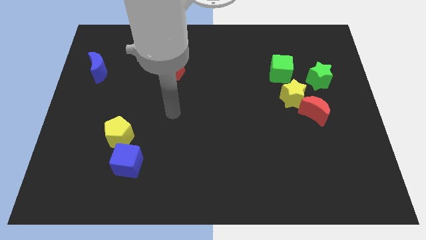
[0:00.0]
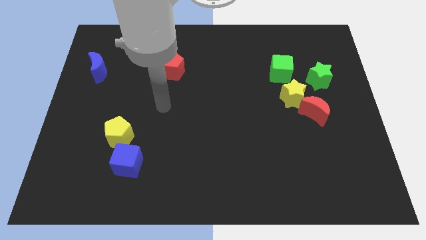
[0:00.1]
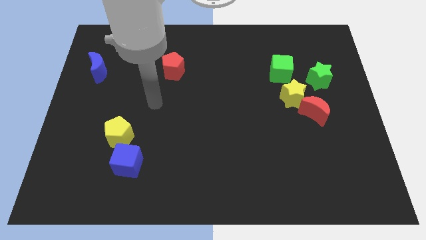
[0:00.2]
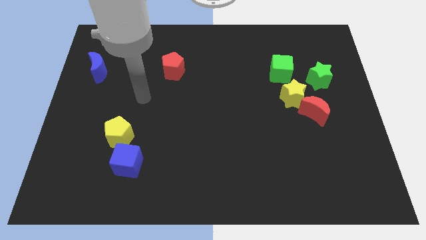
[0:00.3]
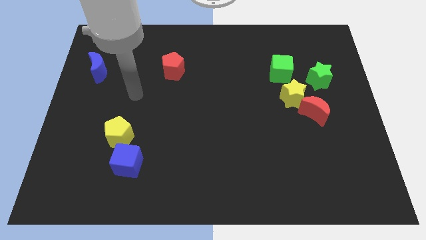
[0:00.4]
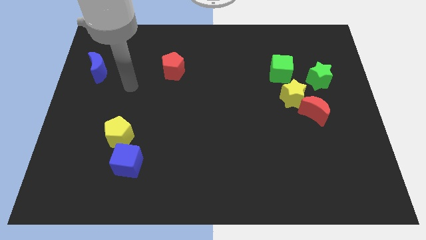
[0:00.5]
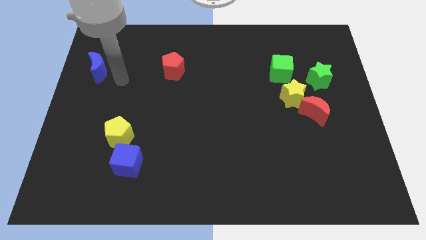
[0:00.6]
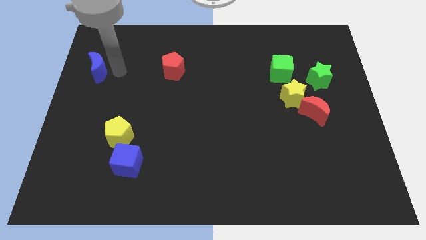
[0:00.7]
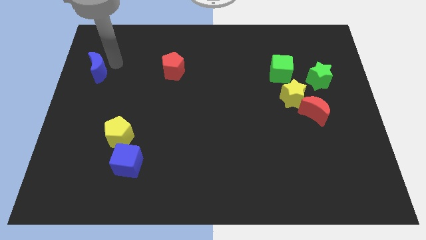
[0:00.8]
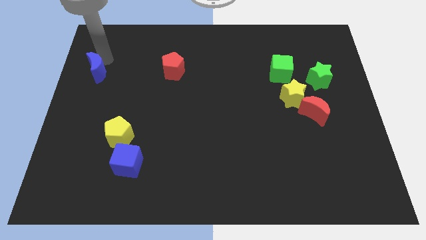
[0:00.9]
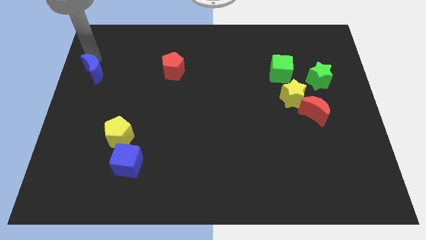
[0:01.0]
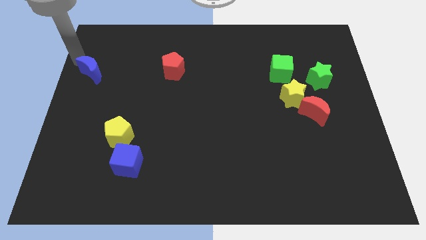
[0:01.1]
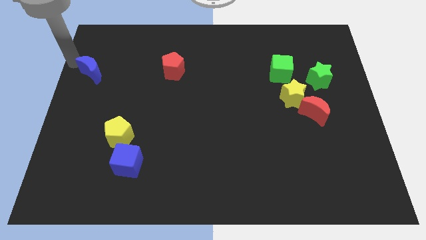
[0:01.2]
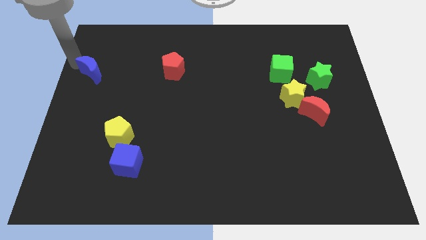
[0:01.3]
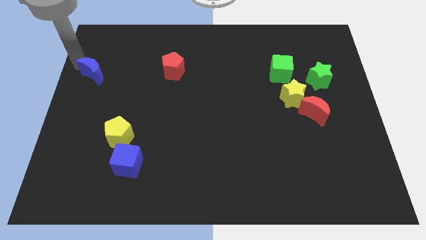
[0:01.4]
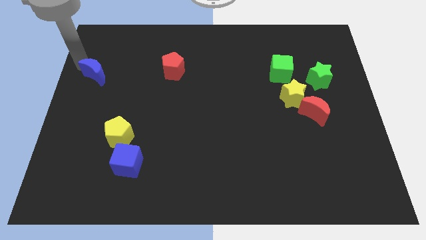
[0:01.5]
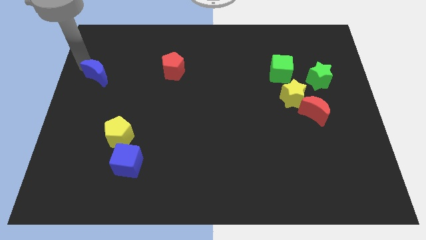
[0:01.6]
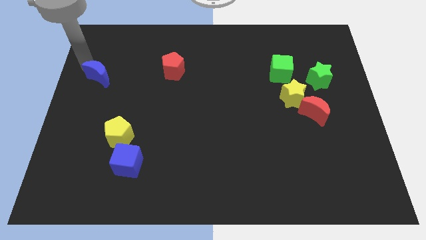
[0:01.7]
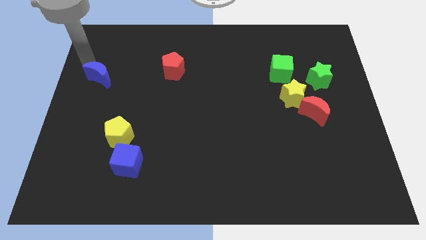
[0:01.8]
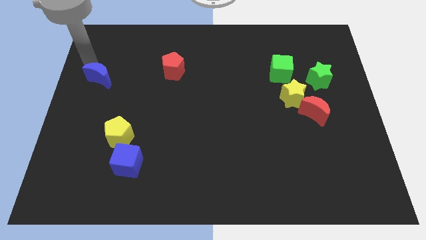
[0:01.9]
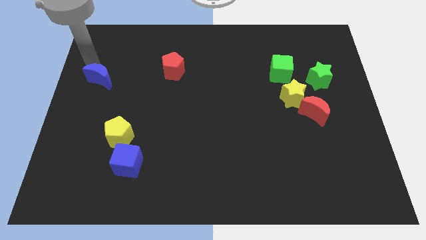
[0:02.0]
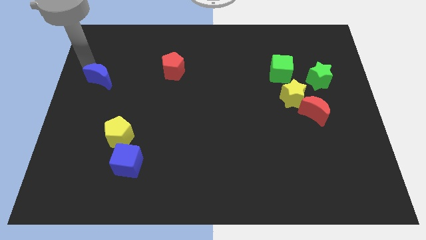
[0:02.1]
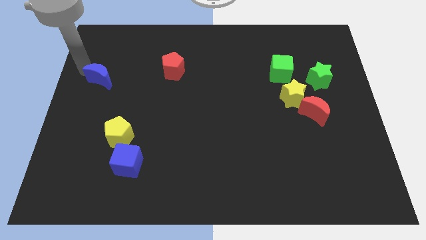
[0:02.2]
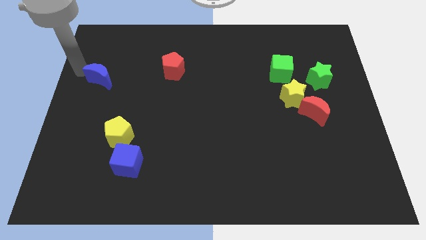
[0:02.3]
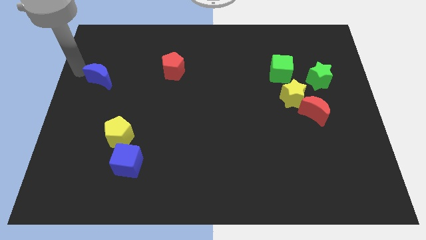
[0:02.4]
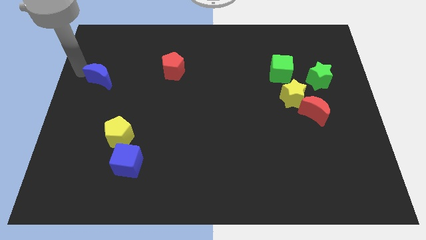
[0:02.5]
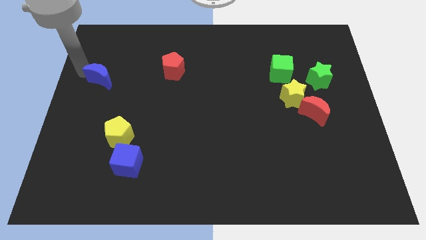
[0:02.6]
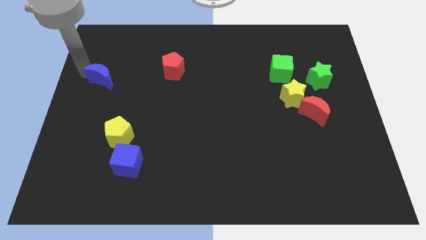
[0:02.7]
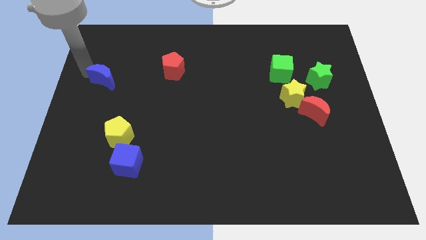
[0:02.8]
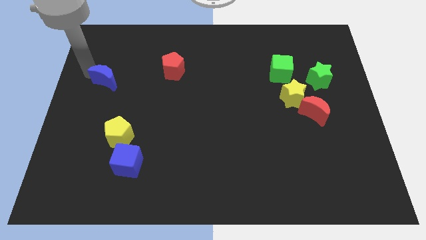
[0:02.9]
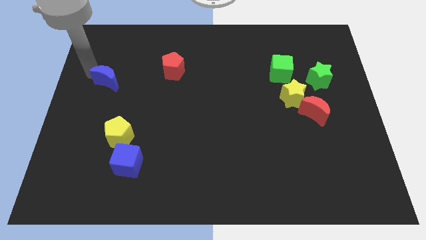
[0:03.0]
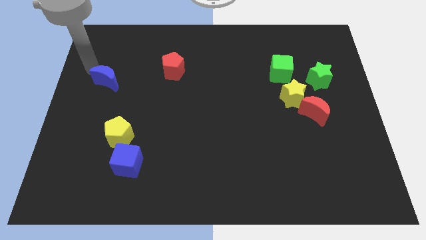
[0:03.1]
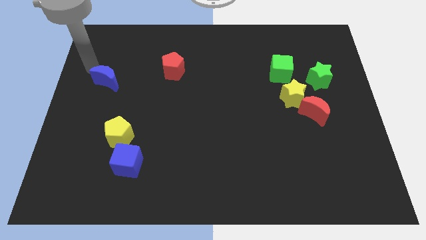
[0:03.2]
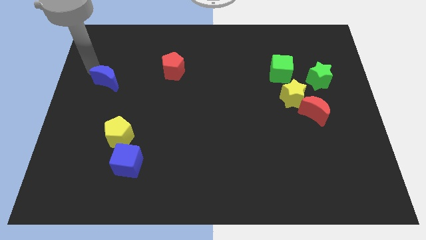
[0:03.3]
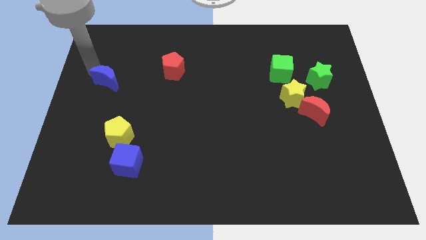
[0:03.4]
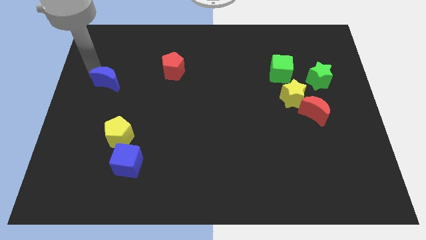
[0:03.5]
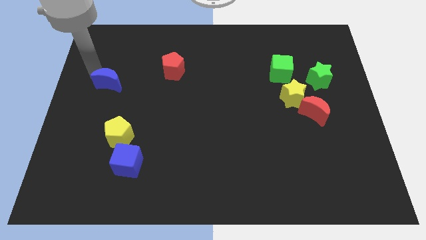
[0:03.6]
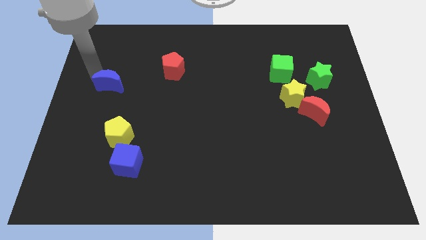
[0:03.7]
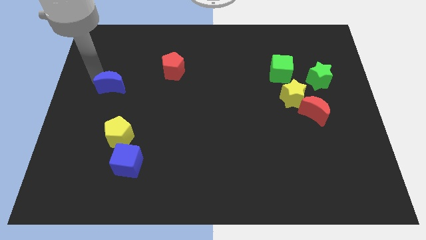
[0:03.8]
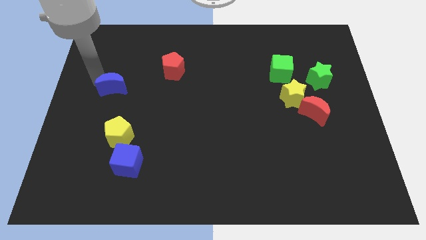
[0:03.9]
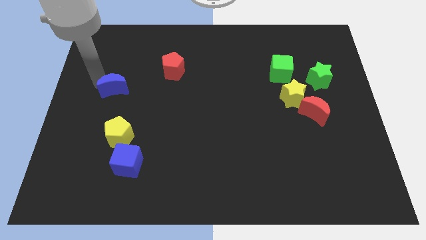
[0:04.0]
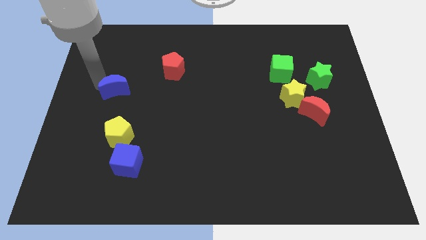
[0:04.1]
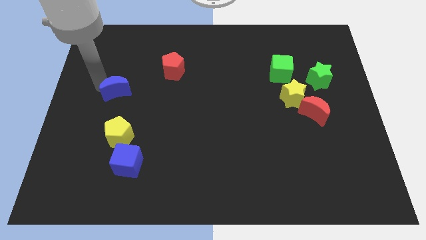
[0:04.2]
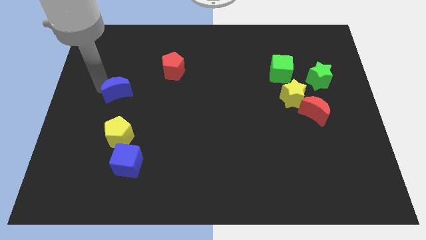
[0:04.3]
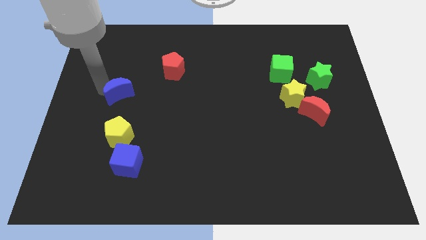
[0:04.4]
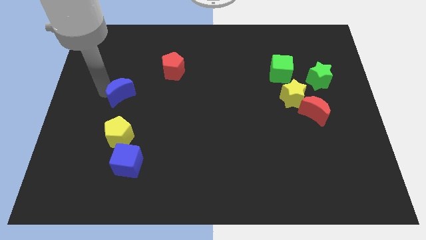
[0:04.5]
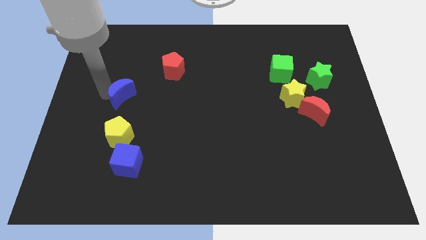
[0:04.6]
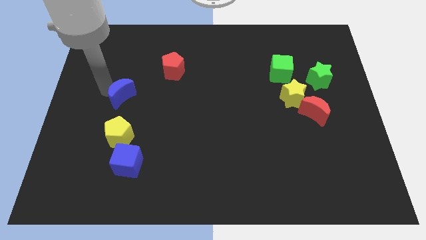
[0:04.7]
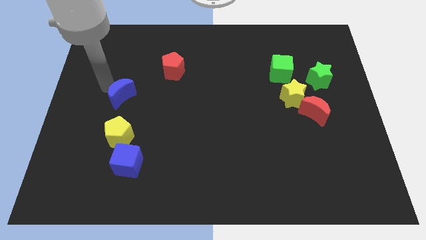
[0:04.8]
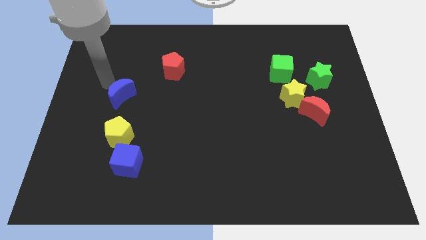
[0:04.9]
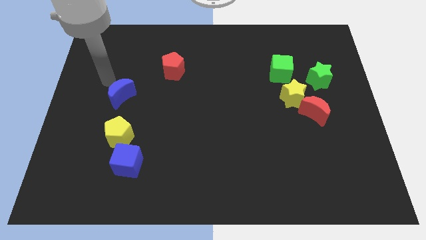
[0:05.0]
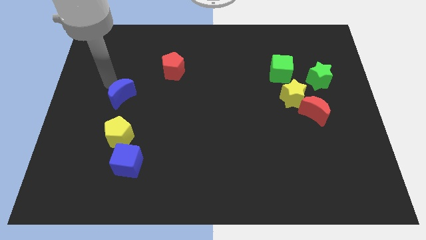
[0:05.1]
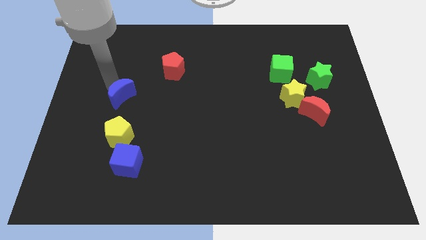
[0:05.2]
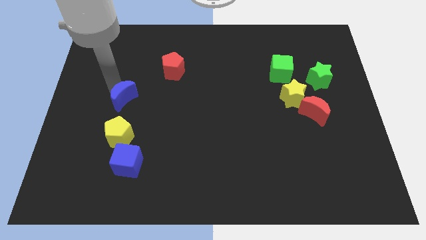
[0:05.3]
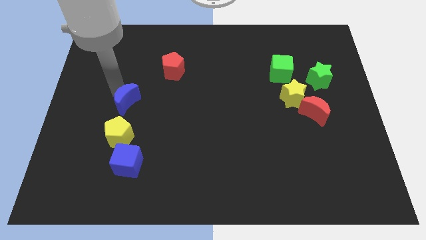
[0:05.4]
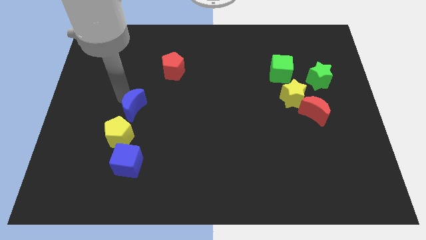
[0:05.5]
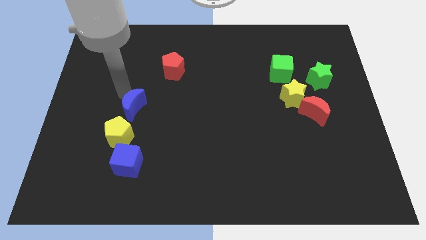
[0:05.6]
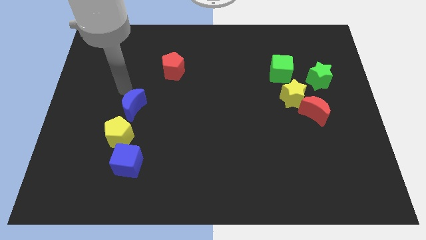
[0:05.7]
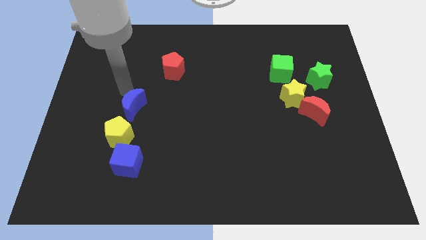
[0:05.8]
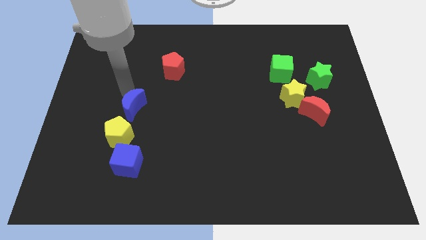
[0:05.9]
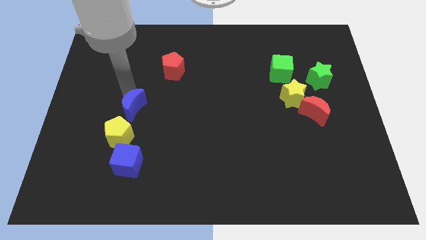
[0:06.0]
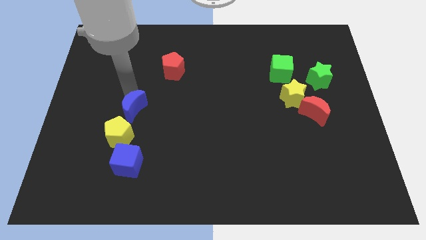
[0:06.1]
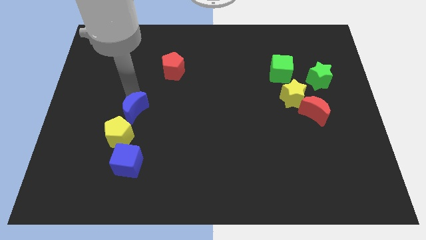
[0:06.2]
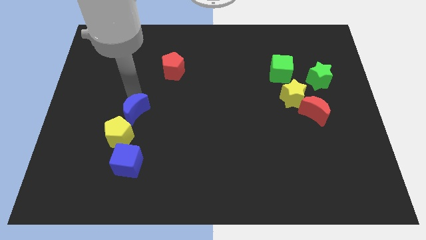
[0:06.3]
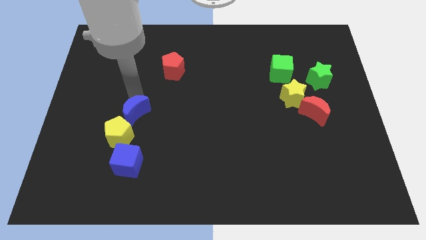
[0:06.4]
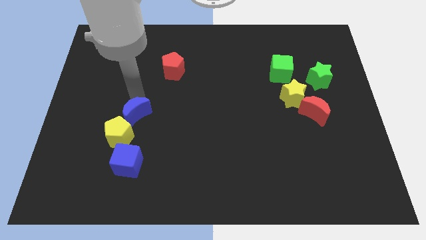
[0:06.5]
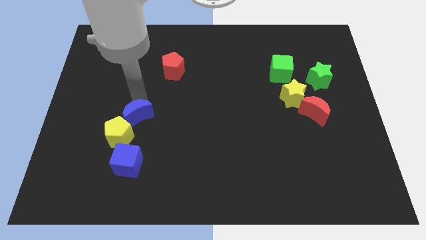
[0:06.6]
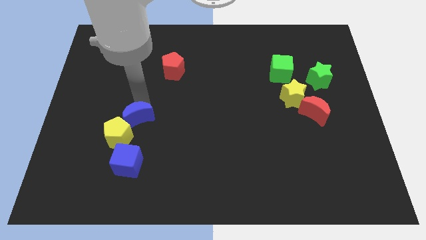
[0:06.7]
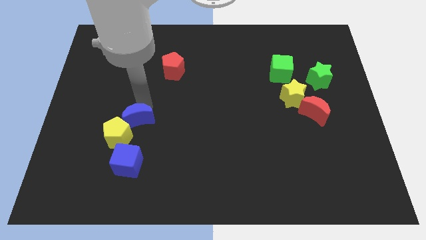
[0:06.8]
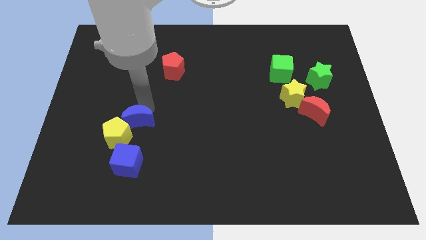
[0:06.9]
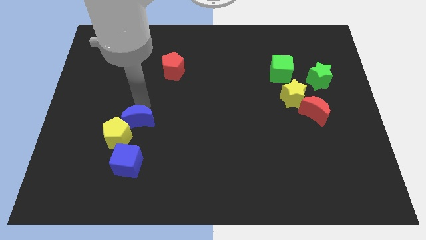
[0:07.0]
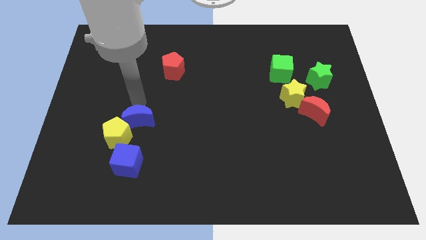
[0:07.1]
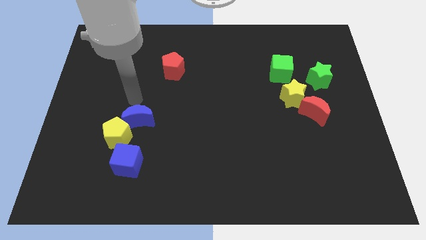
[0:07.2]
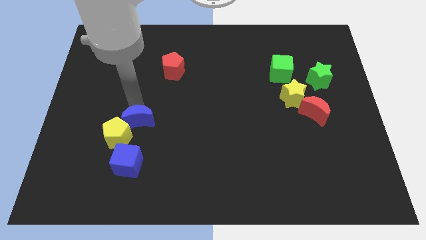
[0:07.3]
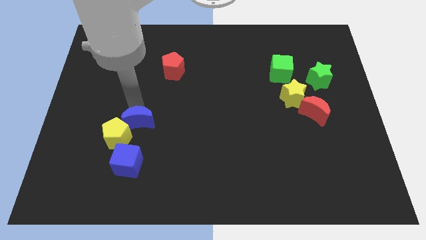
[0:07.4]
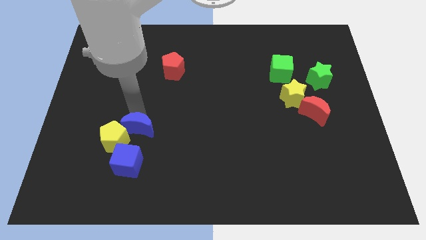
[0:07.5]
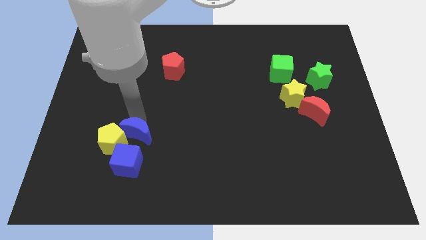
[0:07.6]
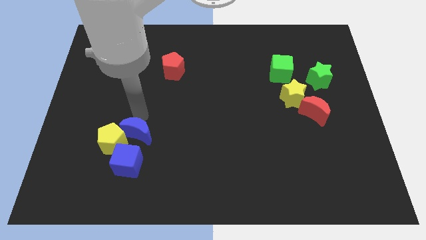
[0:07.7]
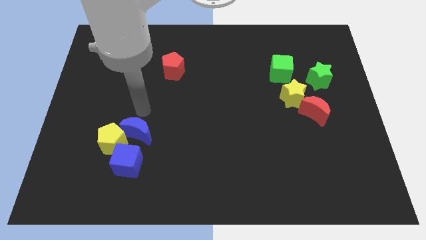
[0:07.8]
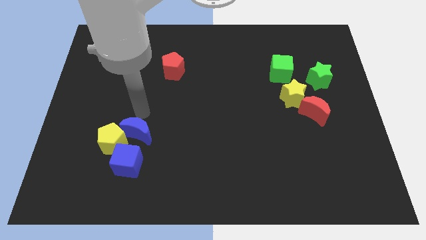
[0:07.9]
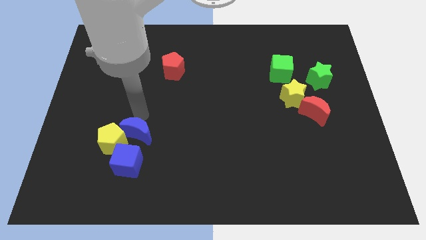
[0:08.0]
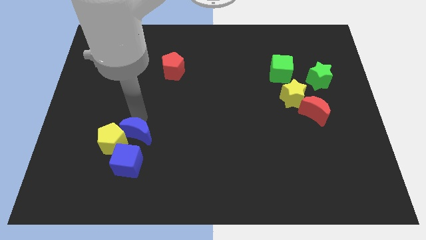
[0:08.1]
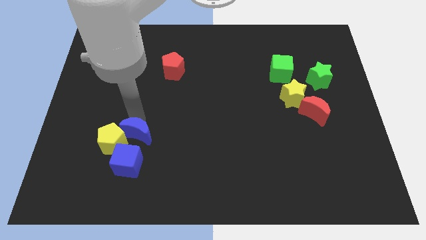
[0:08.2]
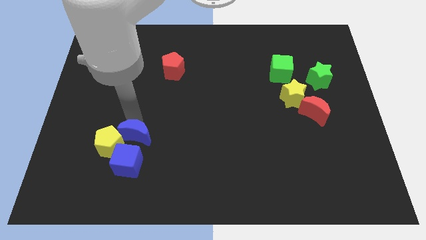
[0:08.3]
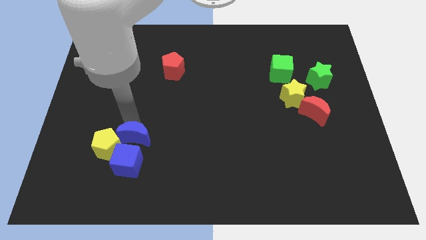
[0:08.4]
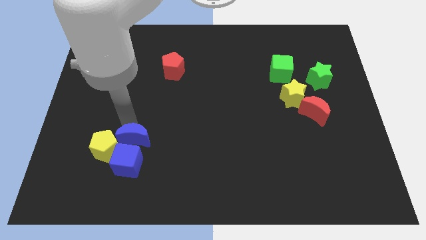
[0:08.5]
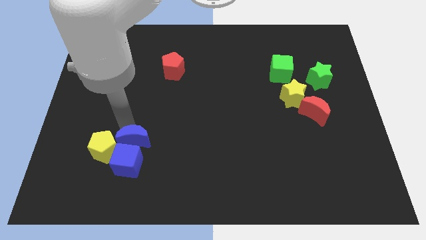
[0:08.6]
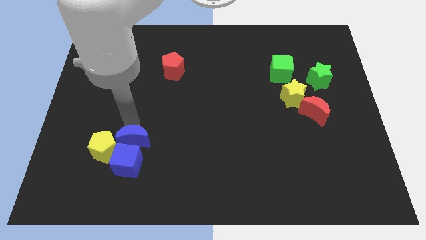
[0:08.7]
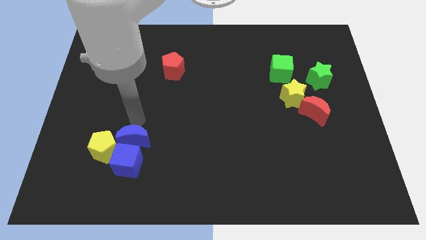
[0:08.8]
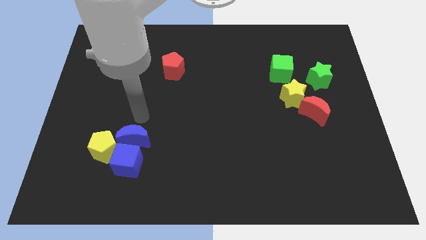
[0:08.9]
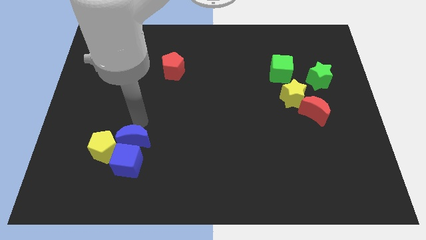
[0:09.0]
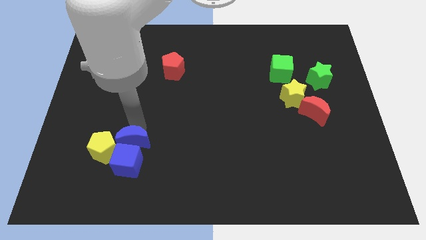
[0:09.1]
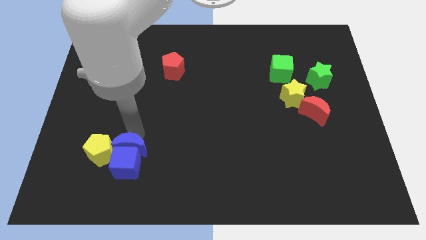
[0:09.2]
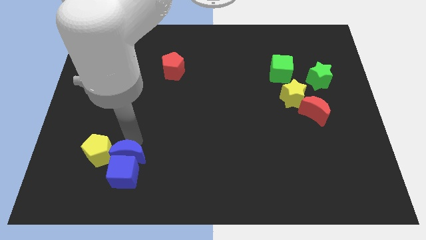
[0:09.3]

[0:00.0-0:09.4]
put the blue moon diagonally down and to the right of the yellow pentagon
